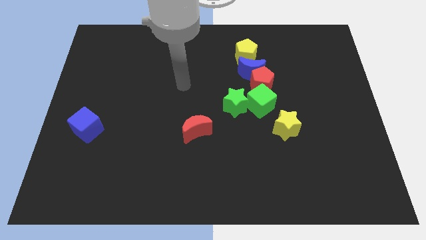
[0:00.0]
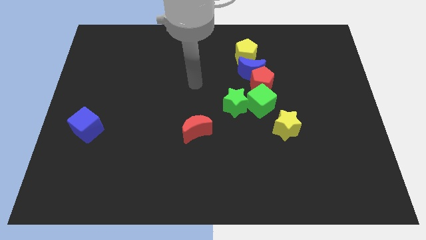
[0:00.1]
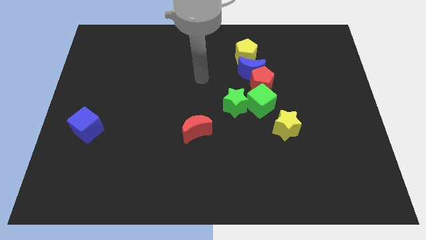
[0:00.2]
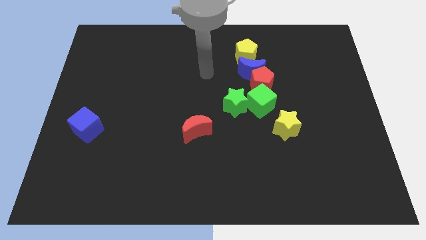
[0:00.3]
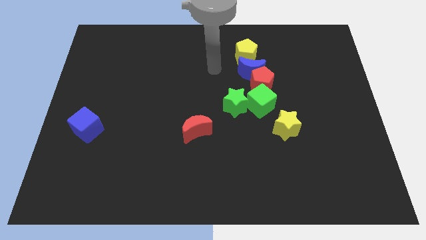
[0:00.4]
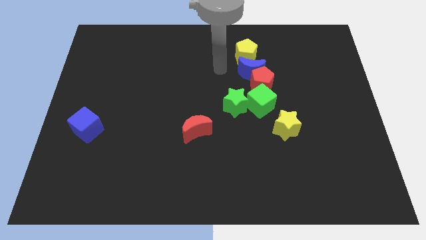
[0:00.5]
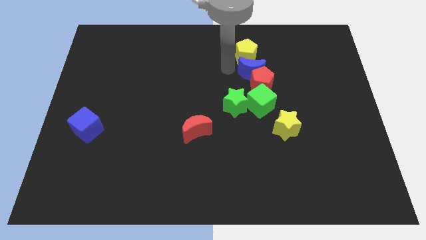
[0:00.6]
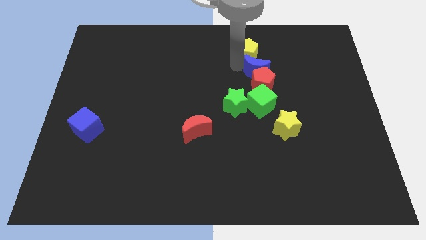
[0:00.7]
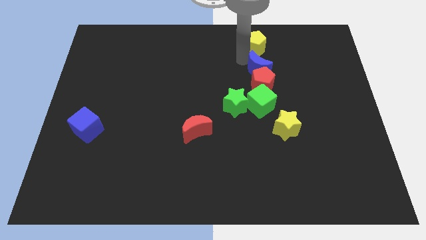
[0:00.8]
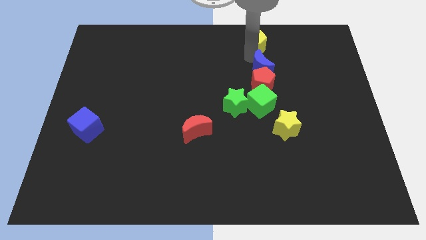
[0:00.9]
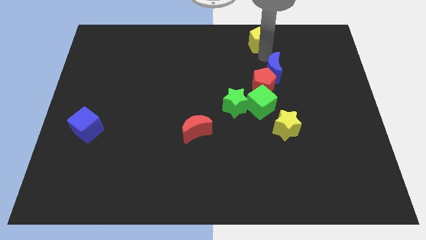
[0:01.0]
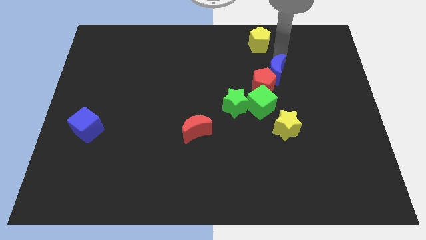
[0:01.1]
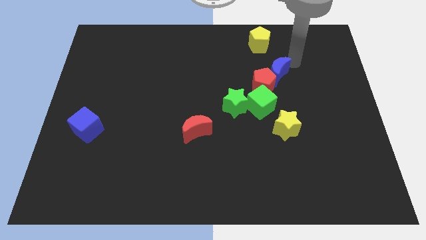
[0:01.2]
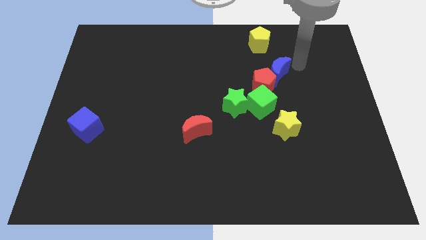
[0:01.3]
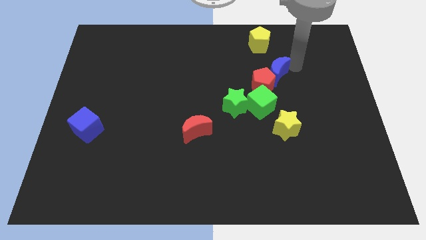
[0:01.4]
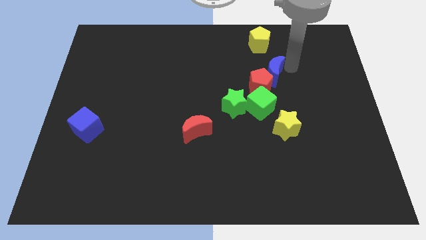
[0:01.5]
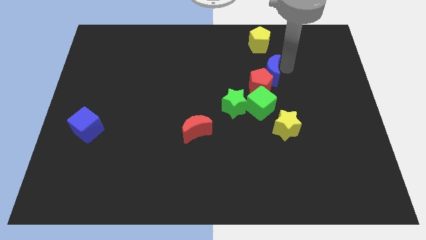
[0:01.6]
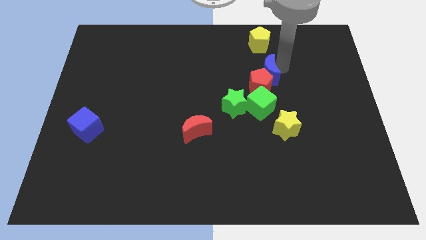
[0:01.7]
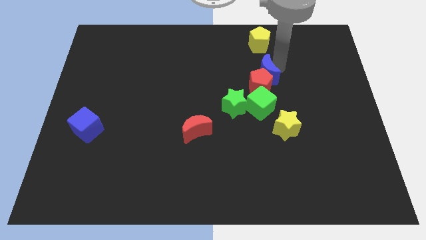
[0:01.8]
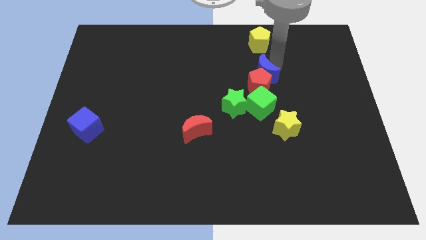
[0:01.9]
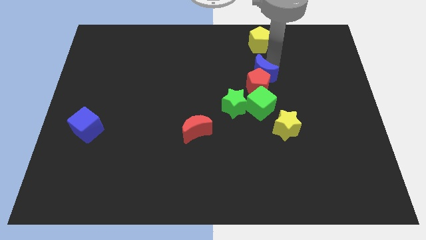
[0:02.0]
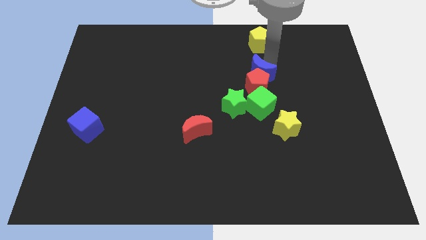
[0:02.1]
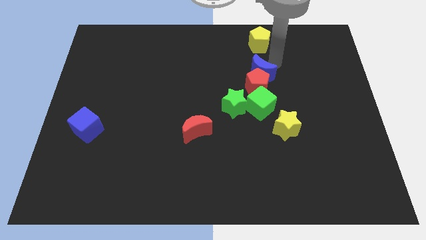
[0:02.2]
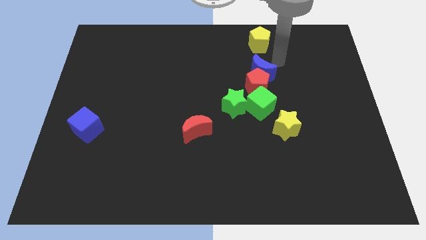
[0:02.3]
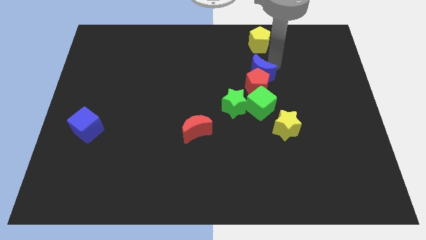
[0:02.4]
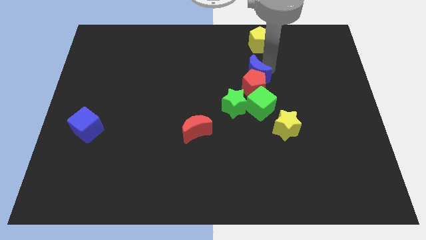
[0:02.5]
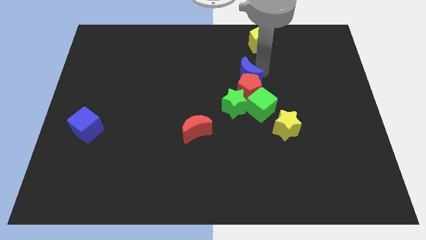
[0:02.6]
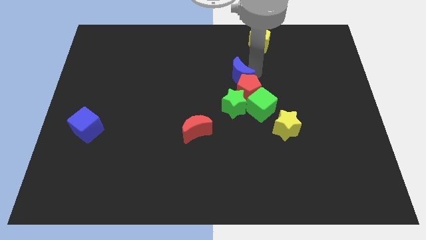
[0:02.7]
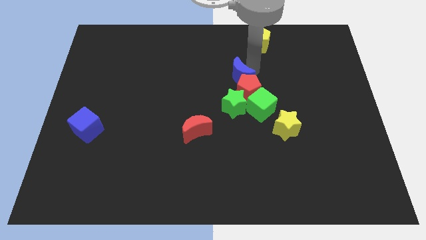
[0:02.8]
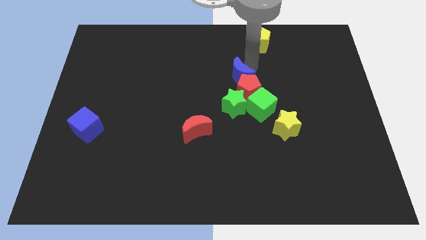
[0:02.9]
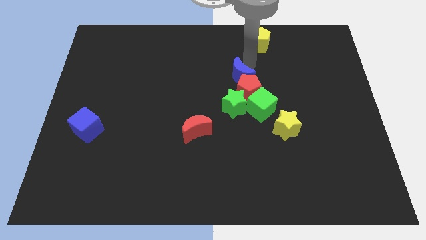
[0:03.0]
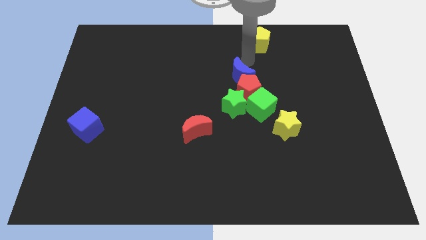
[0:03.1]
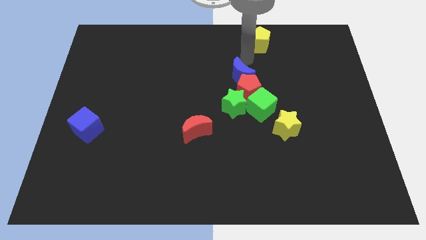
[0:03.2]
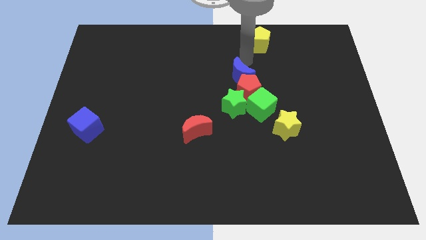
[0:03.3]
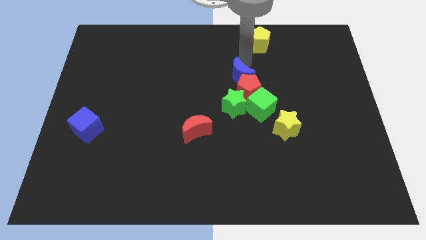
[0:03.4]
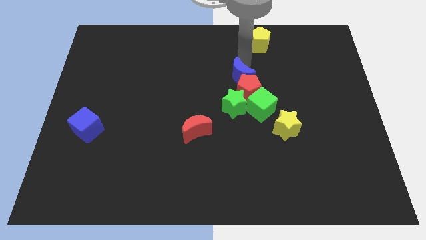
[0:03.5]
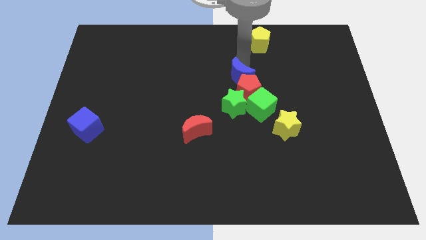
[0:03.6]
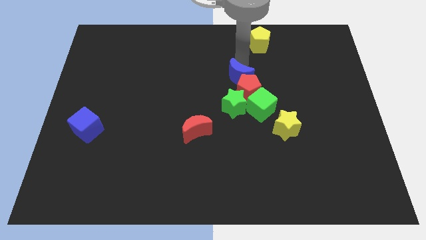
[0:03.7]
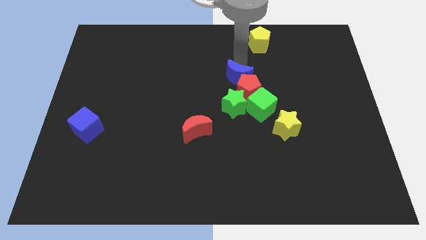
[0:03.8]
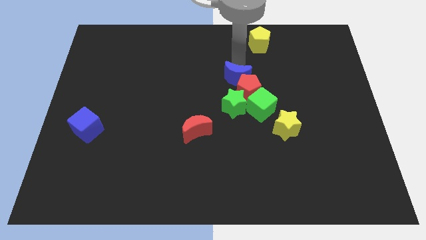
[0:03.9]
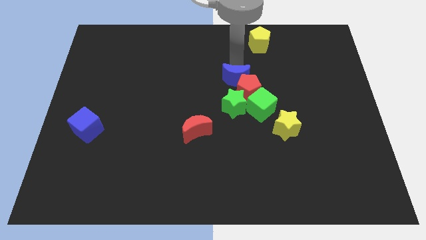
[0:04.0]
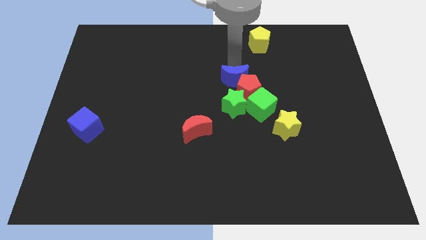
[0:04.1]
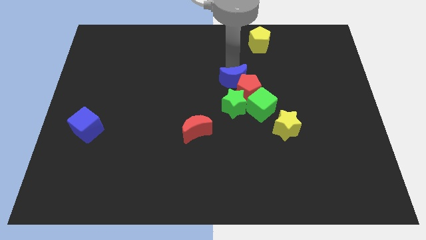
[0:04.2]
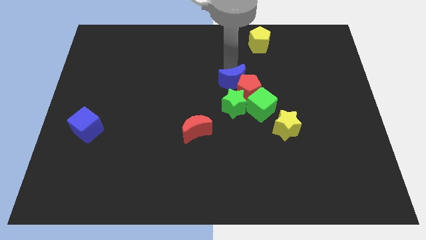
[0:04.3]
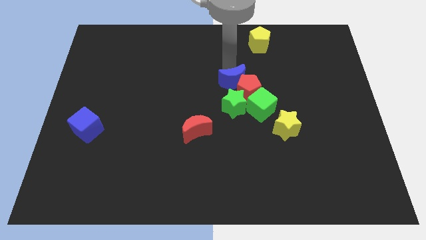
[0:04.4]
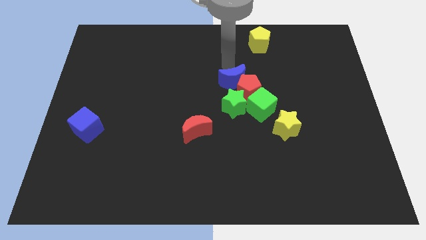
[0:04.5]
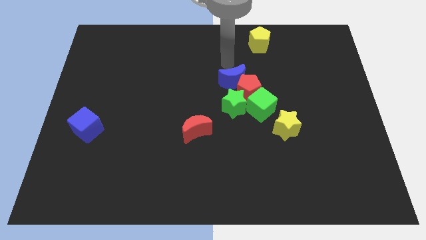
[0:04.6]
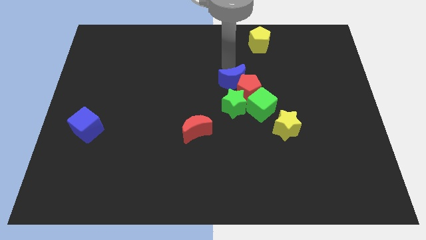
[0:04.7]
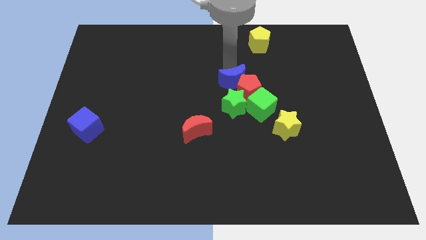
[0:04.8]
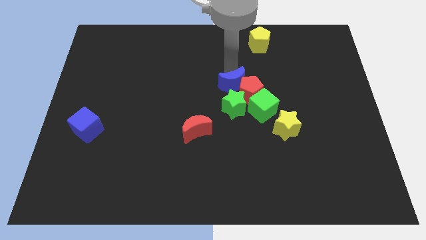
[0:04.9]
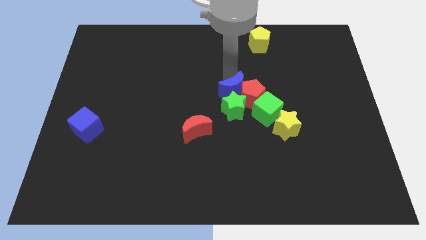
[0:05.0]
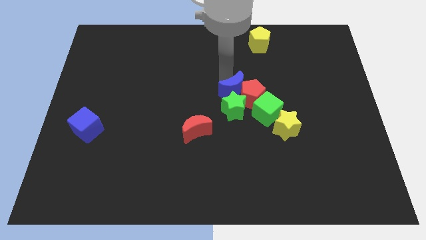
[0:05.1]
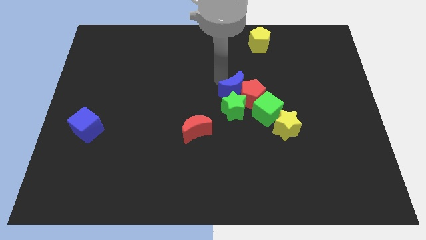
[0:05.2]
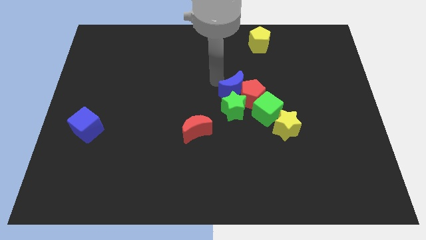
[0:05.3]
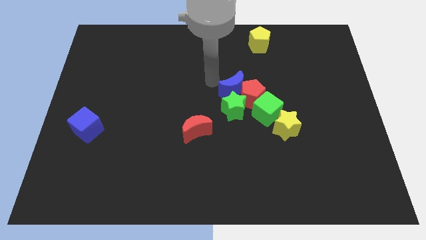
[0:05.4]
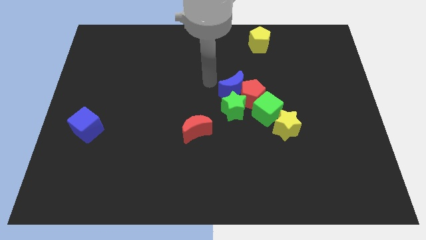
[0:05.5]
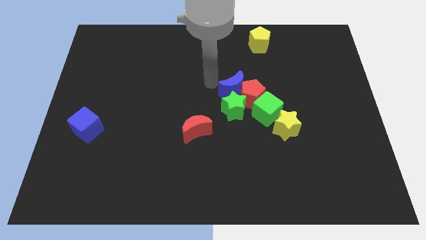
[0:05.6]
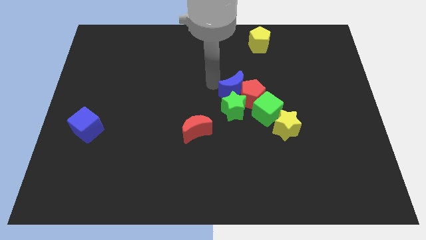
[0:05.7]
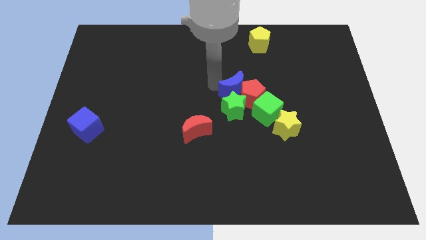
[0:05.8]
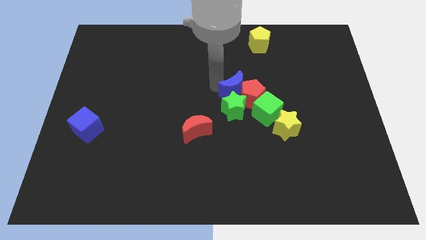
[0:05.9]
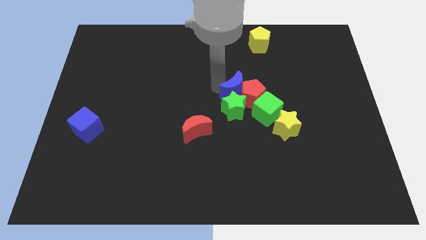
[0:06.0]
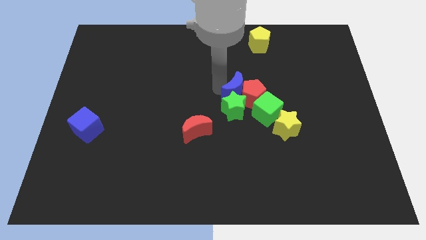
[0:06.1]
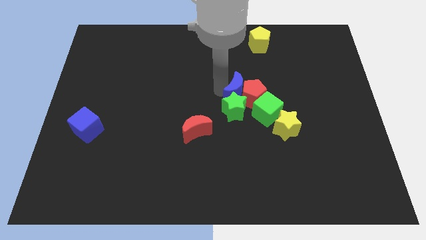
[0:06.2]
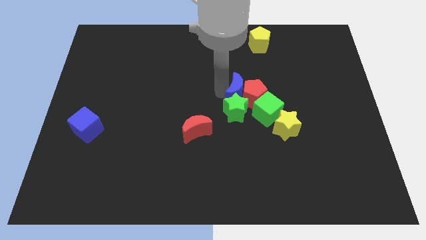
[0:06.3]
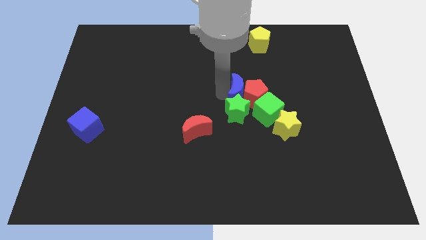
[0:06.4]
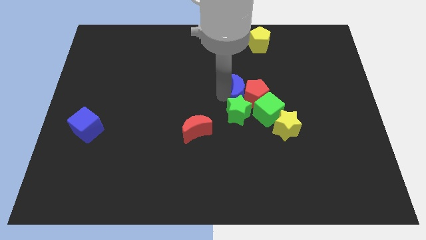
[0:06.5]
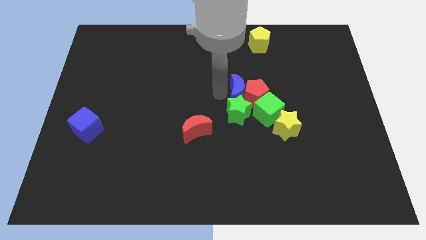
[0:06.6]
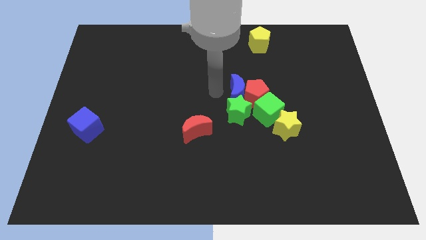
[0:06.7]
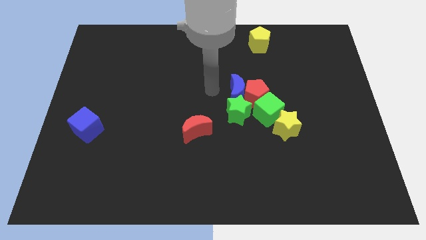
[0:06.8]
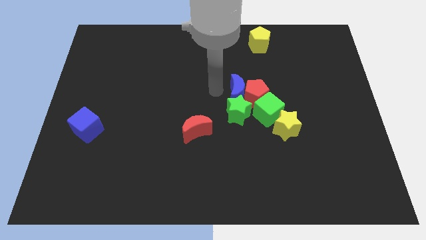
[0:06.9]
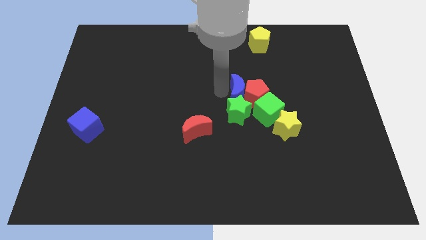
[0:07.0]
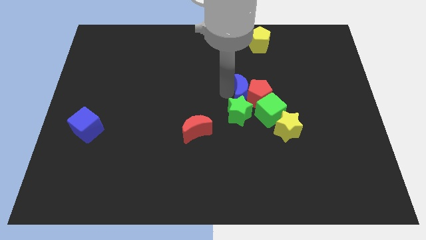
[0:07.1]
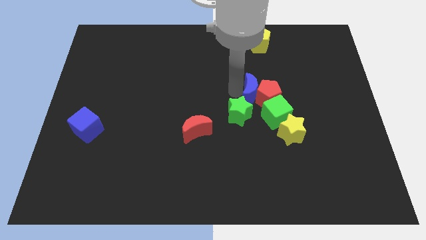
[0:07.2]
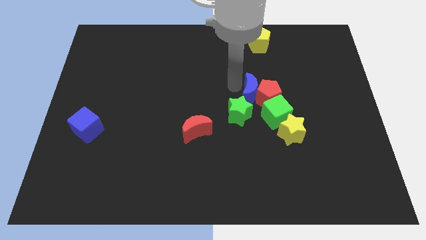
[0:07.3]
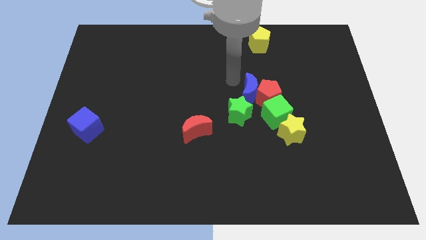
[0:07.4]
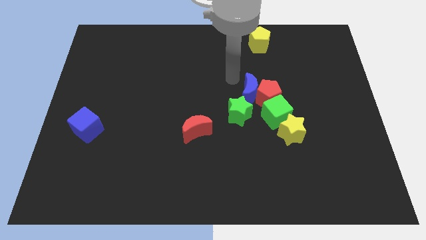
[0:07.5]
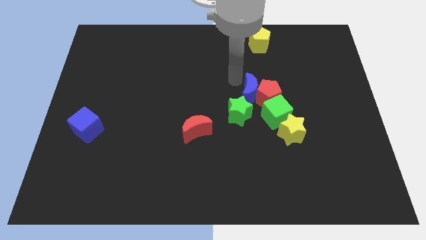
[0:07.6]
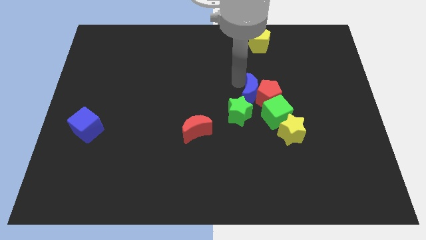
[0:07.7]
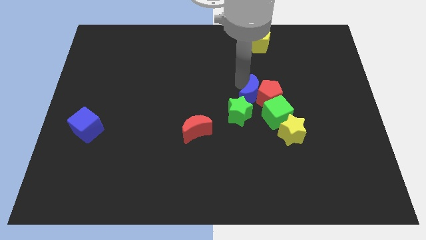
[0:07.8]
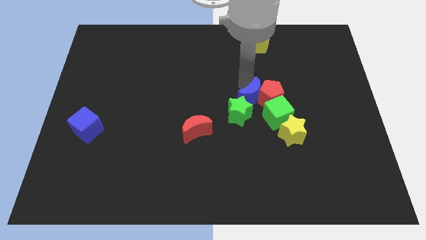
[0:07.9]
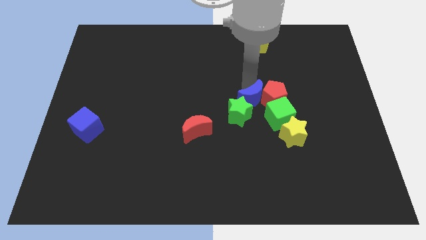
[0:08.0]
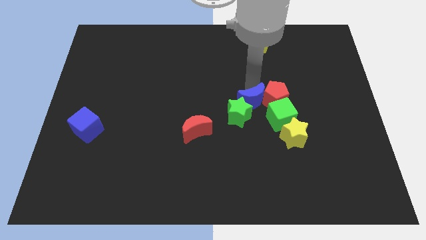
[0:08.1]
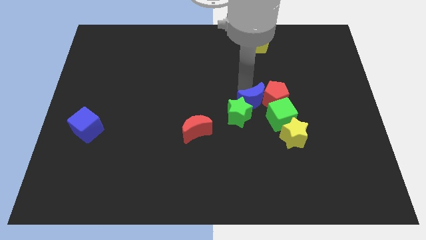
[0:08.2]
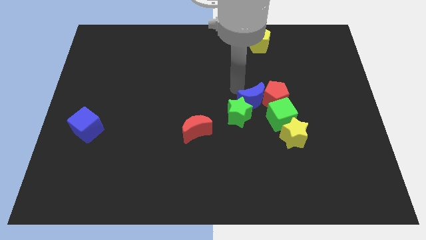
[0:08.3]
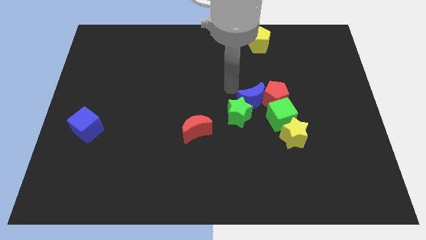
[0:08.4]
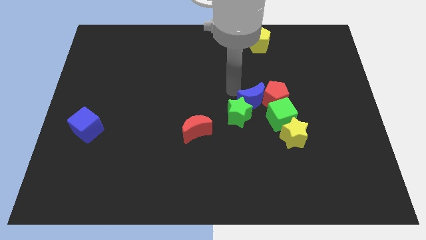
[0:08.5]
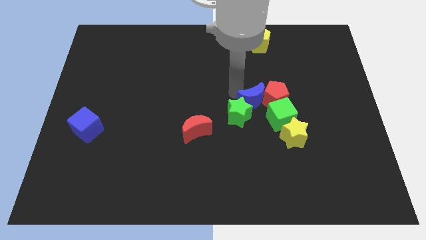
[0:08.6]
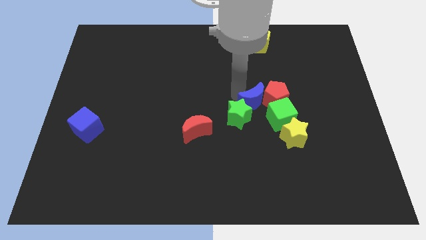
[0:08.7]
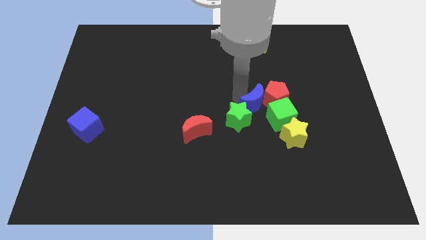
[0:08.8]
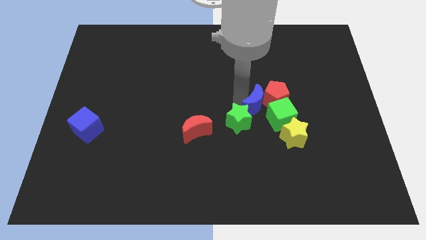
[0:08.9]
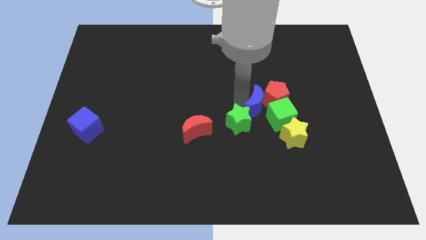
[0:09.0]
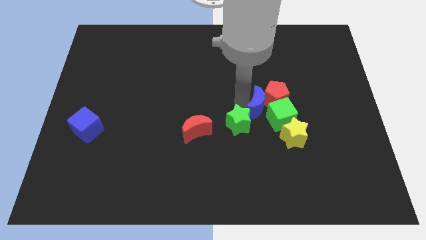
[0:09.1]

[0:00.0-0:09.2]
push the blue moon towards the green cube
